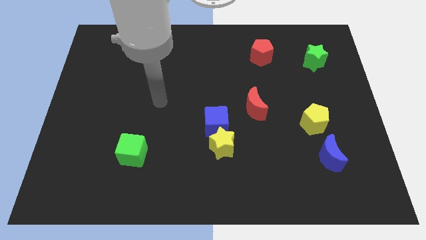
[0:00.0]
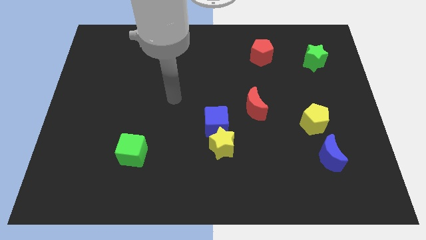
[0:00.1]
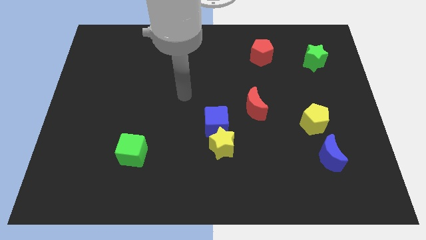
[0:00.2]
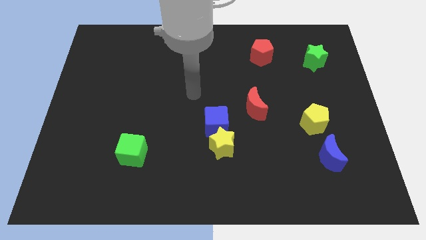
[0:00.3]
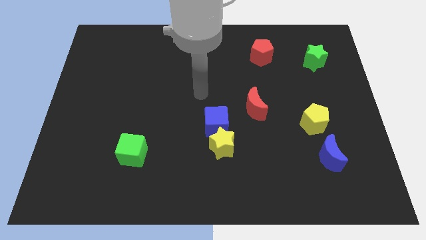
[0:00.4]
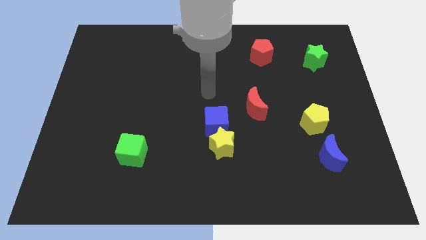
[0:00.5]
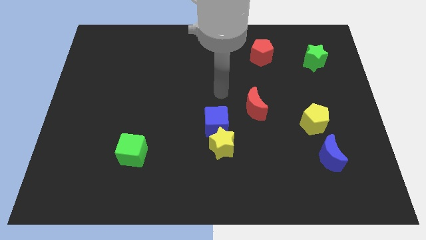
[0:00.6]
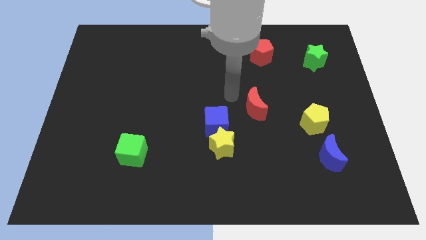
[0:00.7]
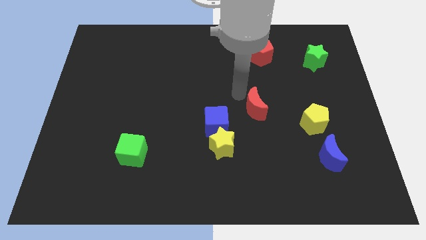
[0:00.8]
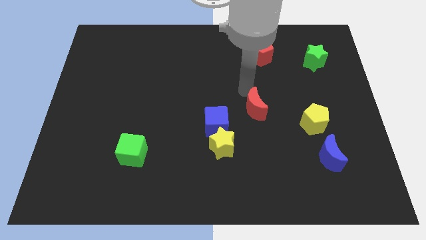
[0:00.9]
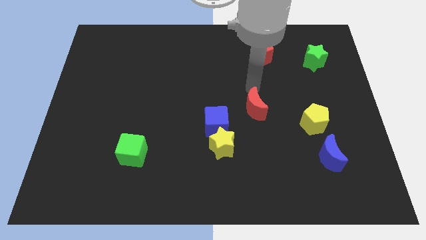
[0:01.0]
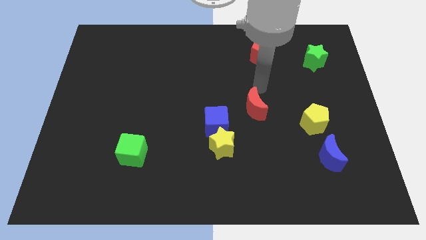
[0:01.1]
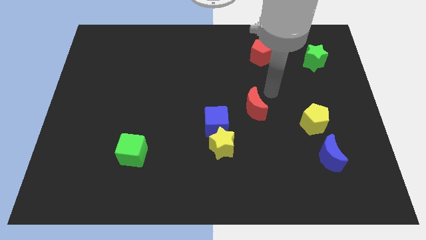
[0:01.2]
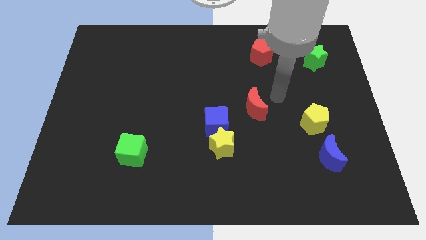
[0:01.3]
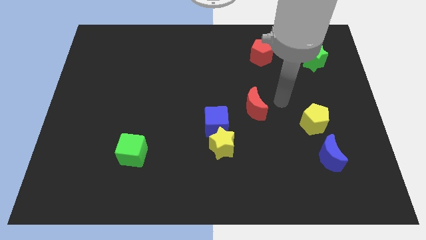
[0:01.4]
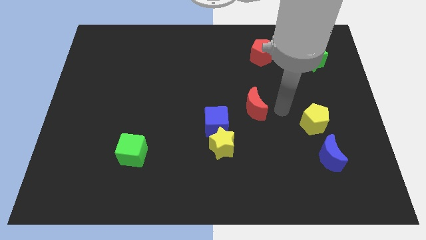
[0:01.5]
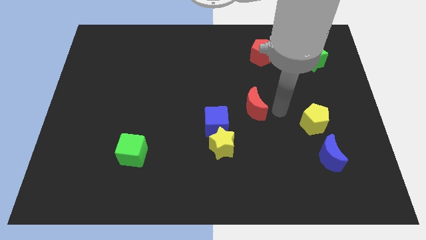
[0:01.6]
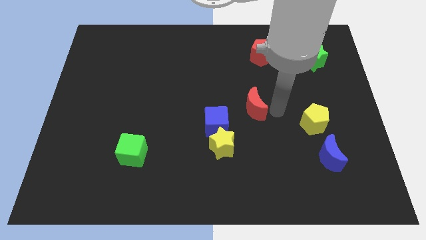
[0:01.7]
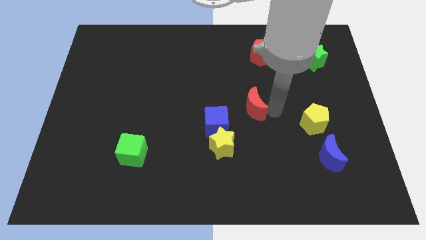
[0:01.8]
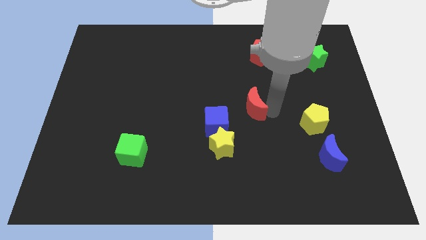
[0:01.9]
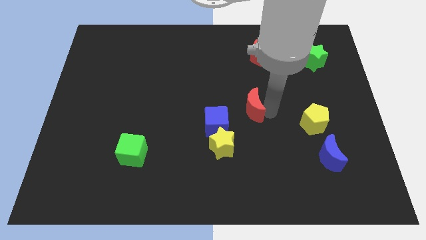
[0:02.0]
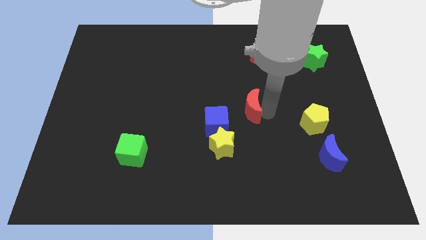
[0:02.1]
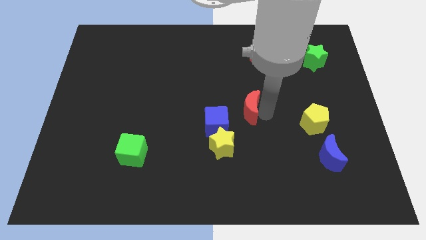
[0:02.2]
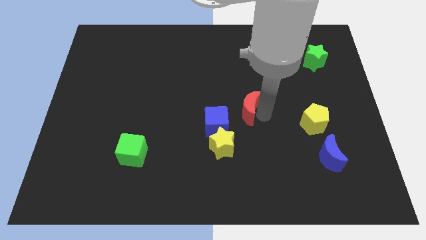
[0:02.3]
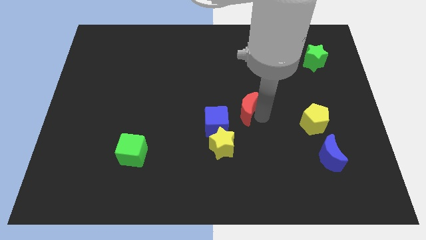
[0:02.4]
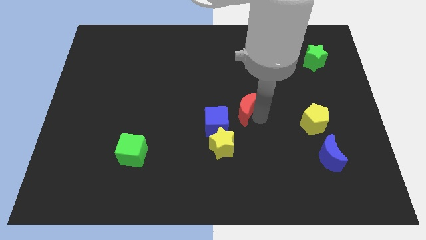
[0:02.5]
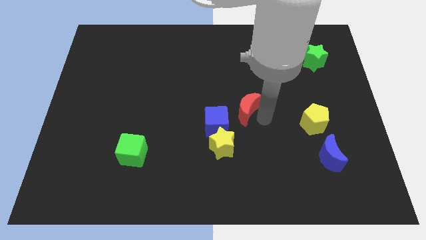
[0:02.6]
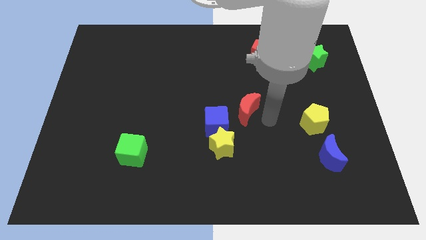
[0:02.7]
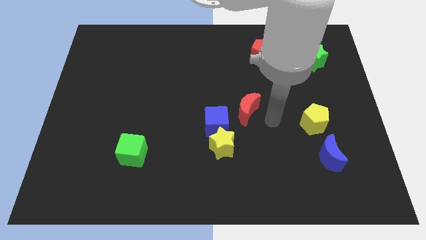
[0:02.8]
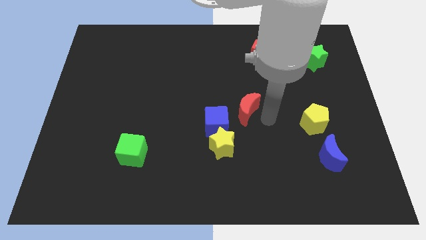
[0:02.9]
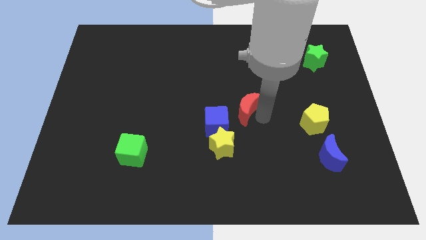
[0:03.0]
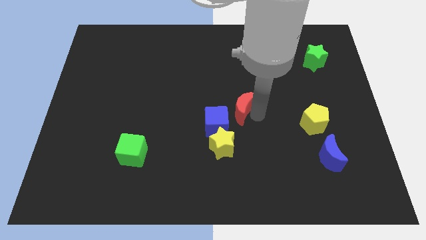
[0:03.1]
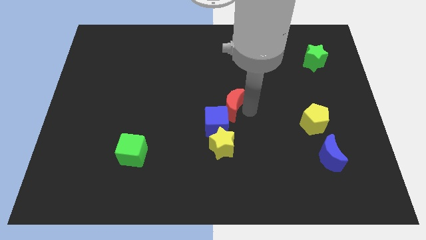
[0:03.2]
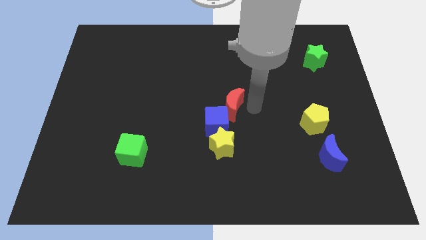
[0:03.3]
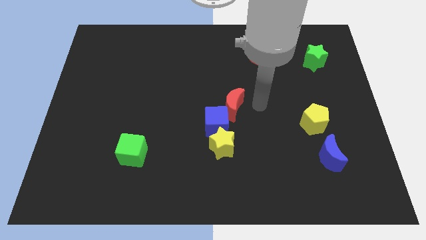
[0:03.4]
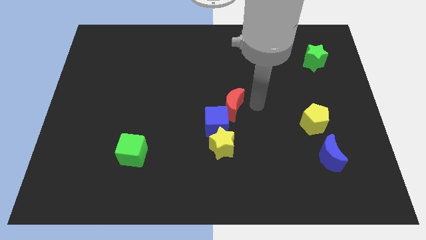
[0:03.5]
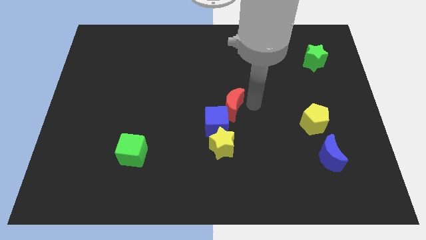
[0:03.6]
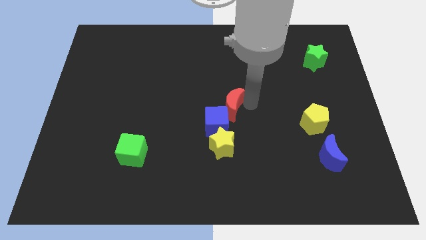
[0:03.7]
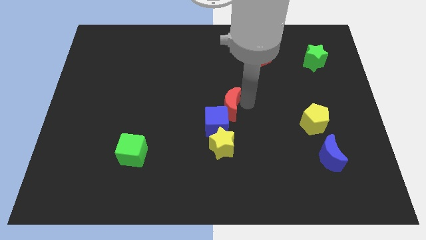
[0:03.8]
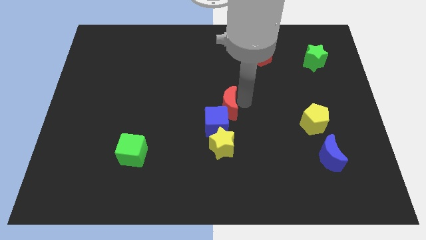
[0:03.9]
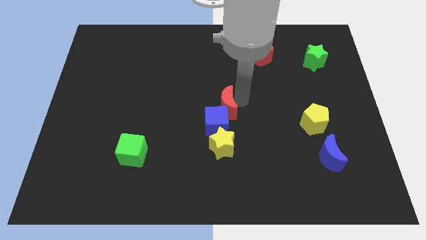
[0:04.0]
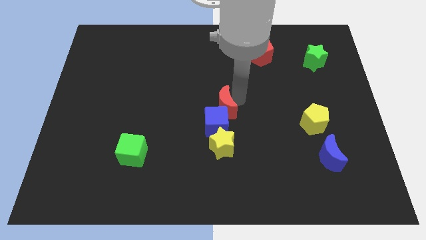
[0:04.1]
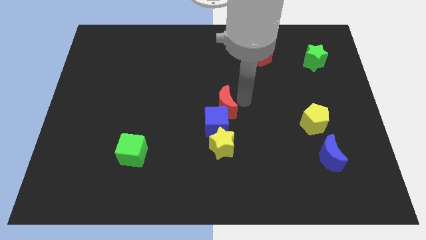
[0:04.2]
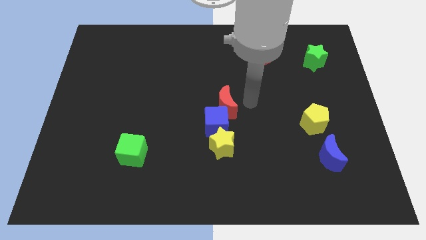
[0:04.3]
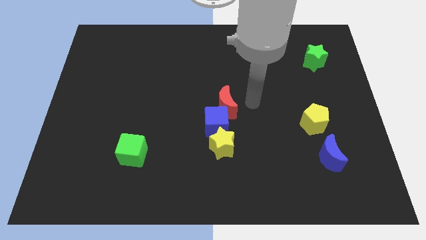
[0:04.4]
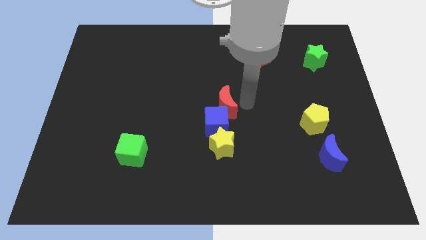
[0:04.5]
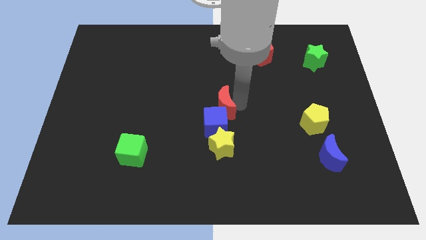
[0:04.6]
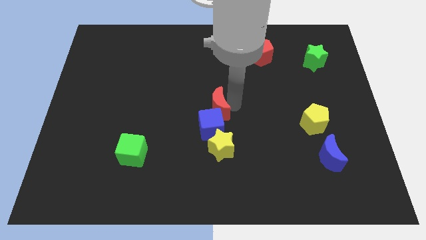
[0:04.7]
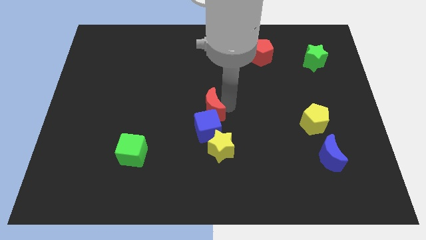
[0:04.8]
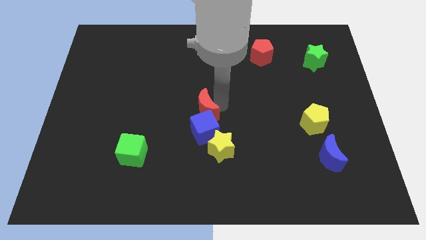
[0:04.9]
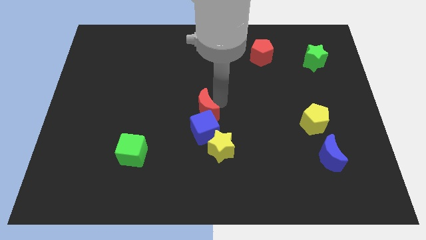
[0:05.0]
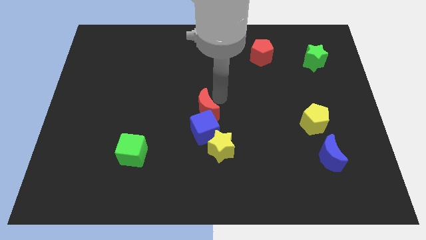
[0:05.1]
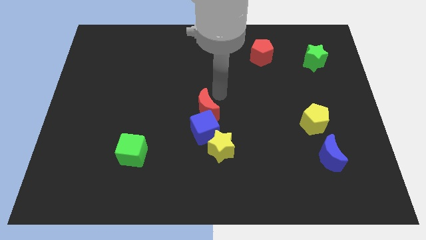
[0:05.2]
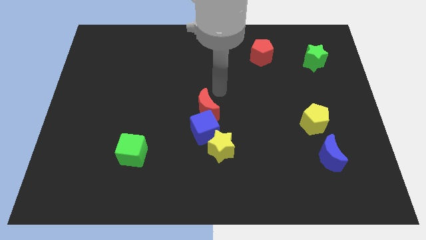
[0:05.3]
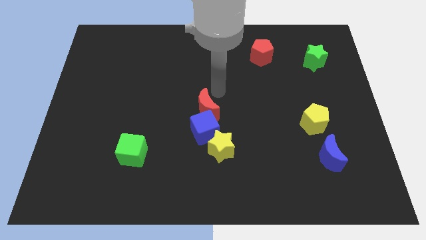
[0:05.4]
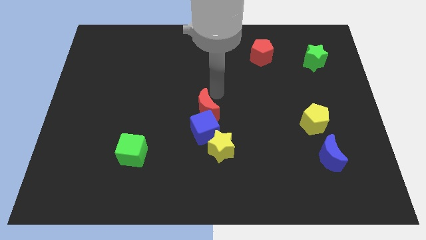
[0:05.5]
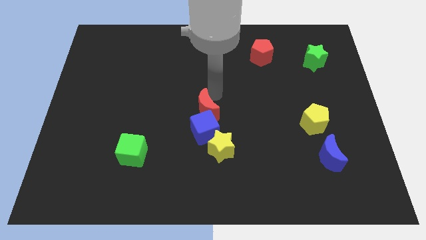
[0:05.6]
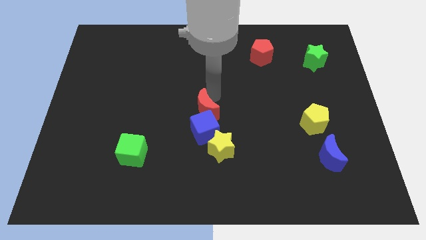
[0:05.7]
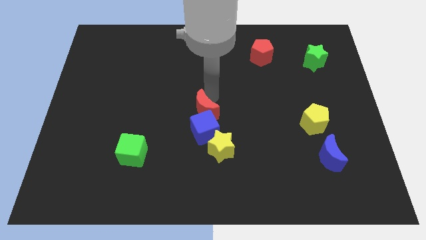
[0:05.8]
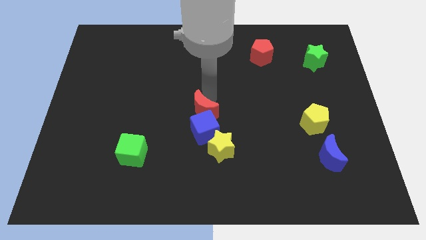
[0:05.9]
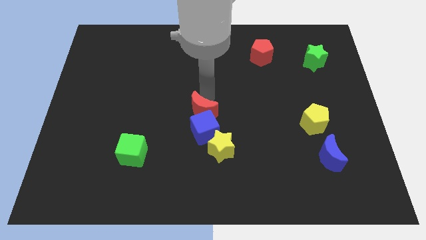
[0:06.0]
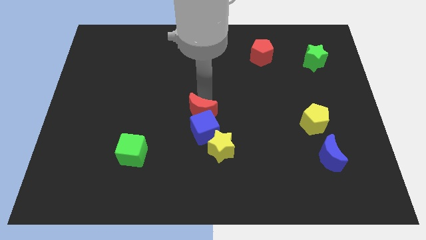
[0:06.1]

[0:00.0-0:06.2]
slide the red moon down and to the left slightly

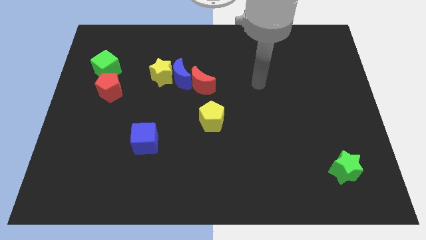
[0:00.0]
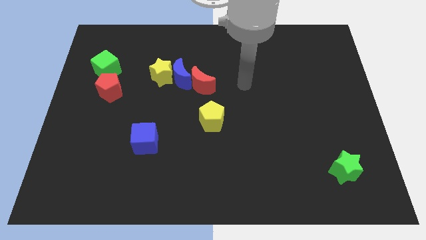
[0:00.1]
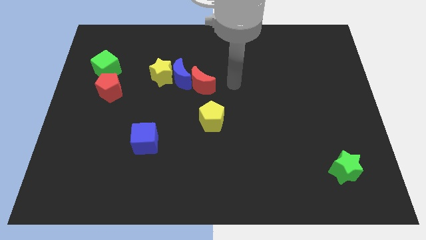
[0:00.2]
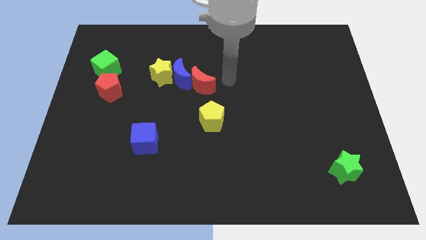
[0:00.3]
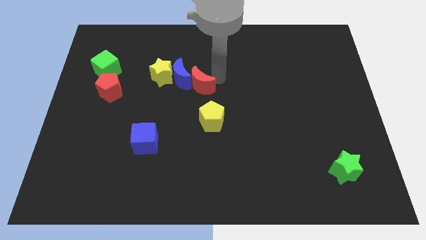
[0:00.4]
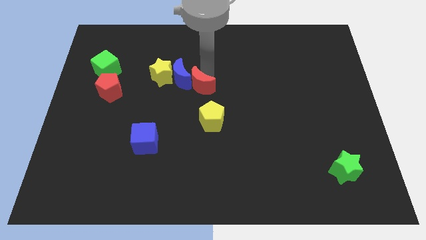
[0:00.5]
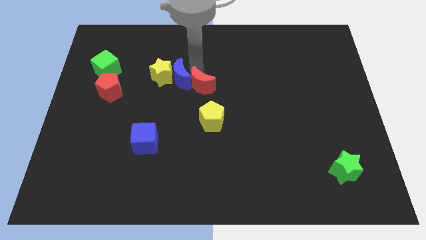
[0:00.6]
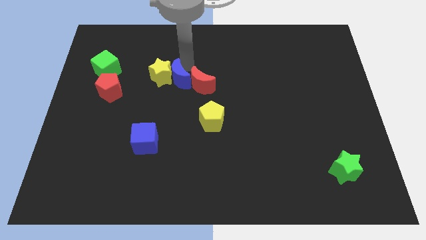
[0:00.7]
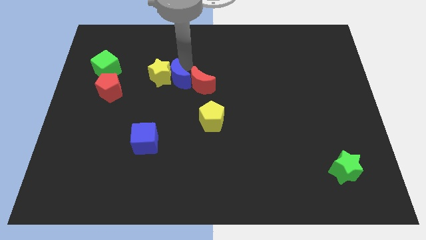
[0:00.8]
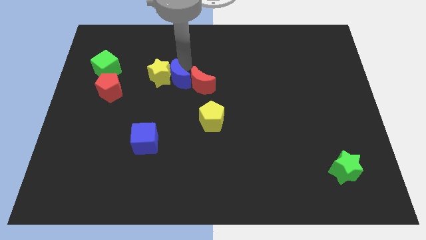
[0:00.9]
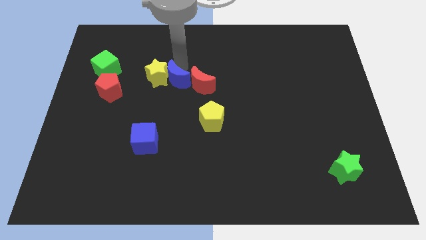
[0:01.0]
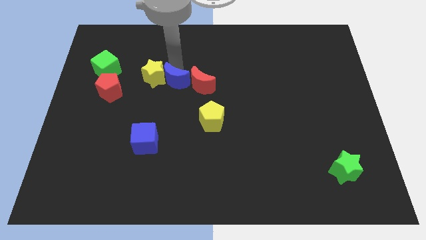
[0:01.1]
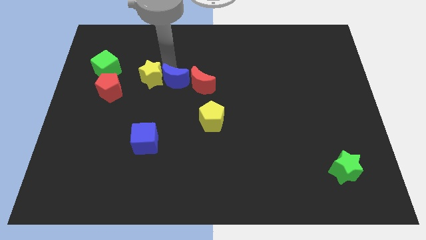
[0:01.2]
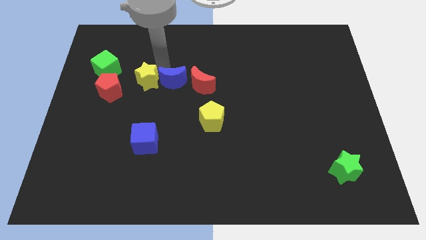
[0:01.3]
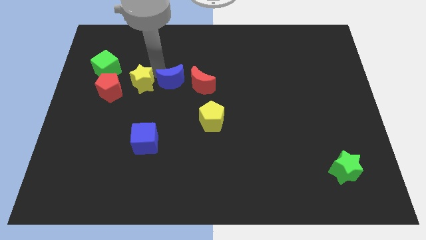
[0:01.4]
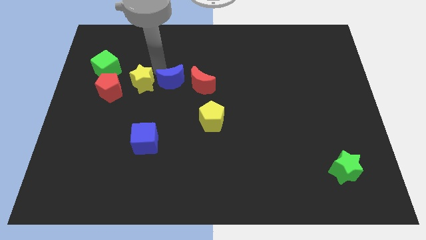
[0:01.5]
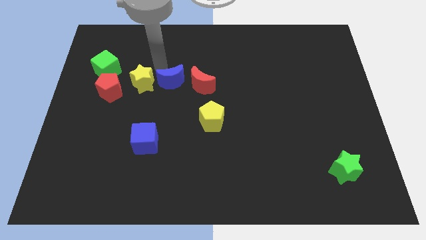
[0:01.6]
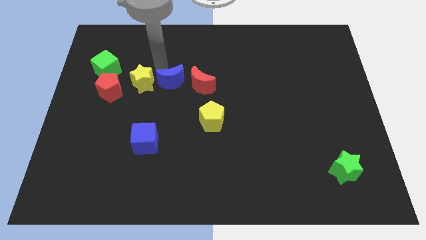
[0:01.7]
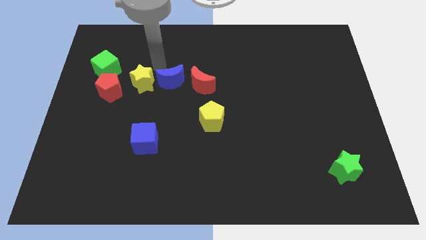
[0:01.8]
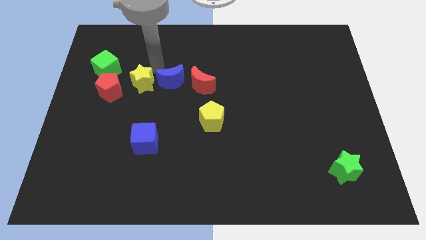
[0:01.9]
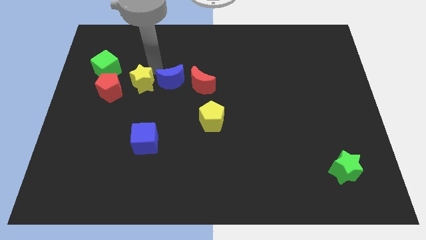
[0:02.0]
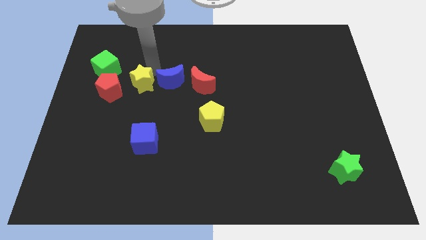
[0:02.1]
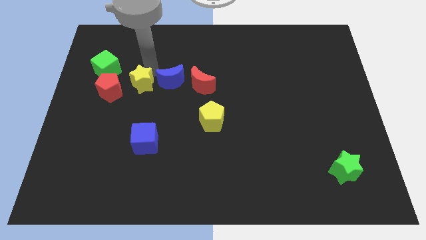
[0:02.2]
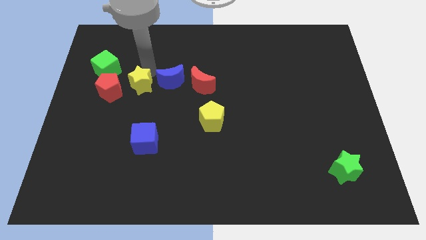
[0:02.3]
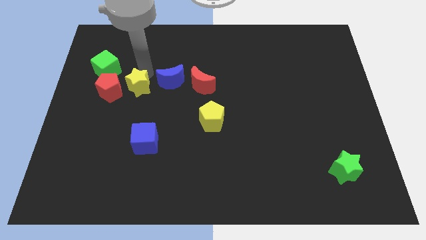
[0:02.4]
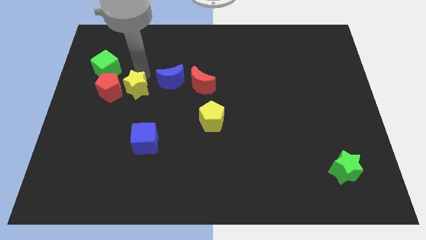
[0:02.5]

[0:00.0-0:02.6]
push the yellow star a little downwards and then left
